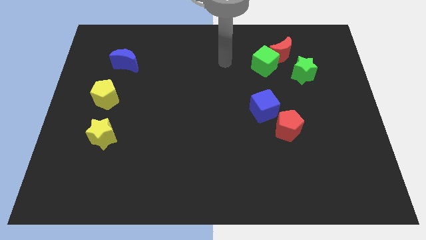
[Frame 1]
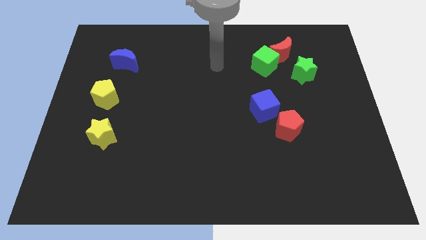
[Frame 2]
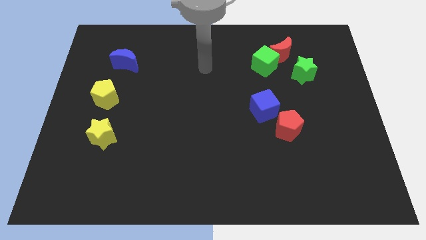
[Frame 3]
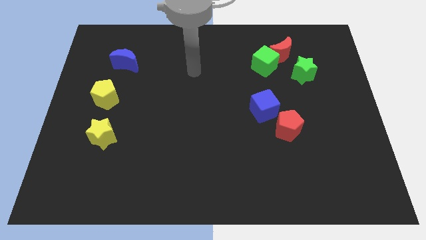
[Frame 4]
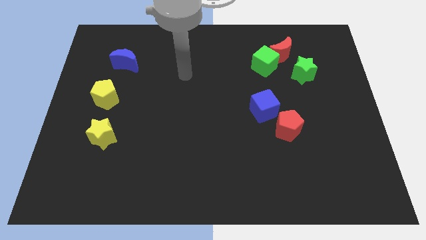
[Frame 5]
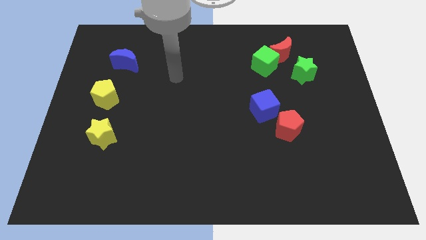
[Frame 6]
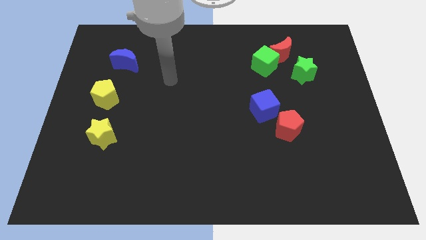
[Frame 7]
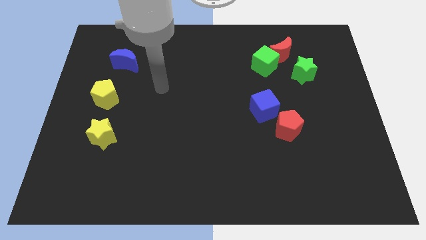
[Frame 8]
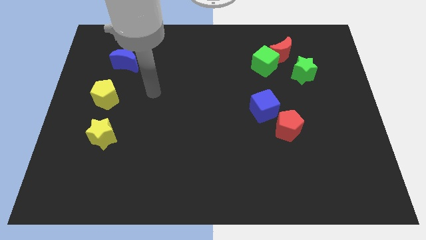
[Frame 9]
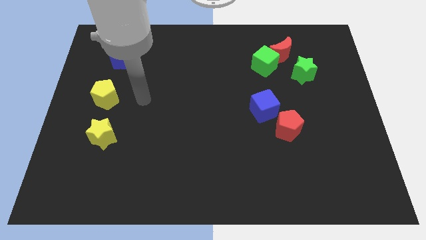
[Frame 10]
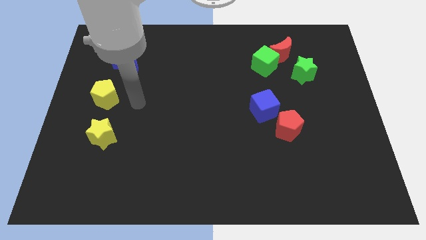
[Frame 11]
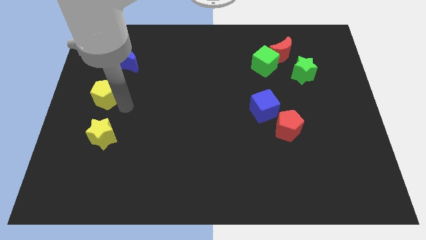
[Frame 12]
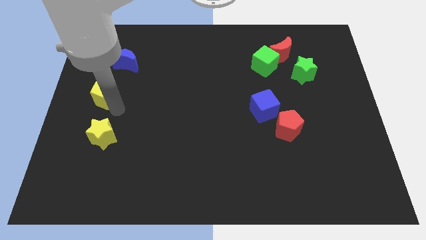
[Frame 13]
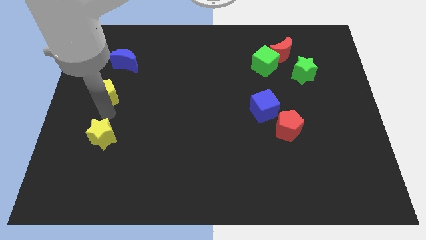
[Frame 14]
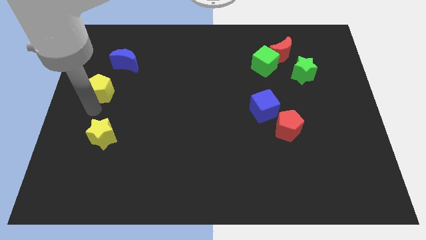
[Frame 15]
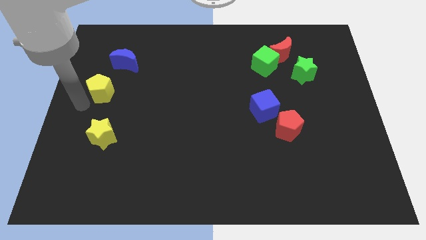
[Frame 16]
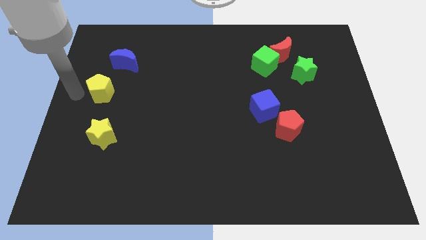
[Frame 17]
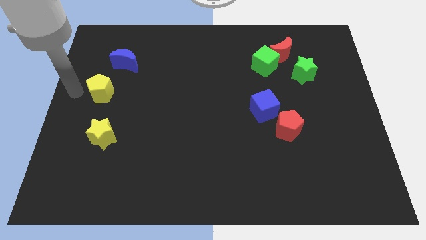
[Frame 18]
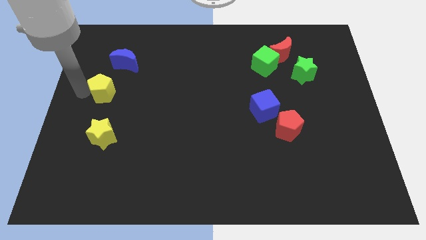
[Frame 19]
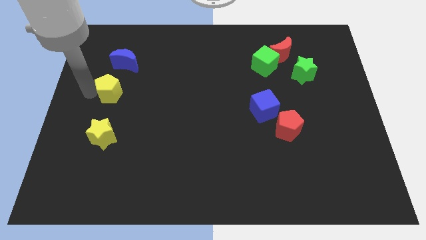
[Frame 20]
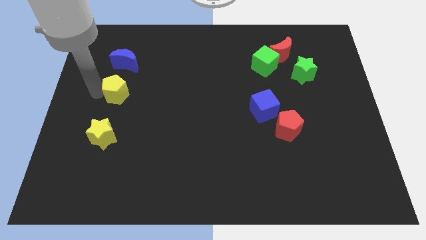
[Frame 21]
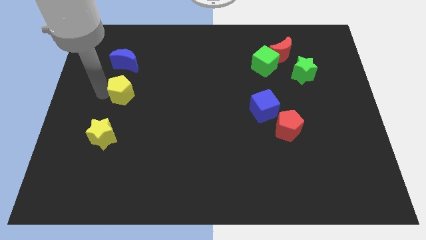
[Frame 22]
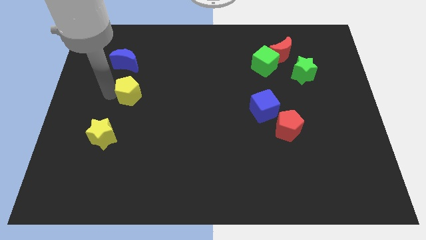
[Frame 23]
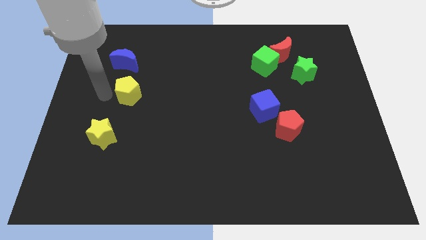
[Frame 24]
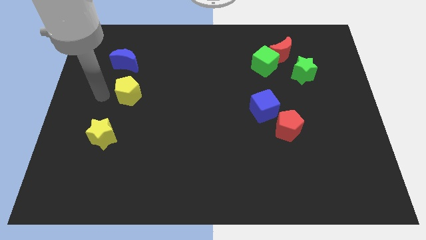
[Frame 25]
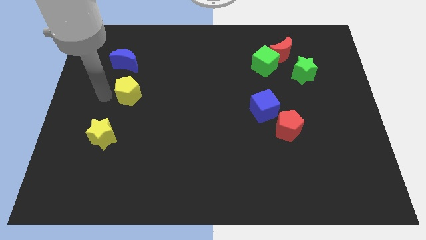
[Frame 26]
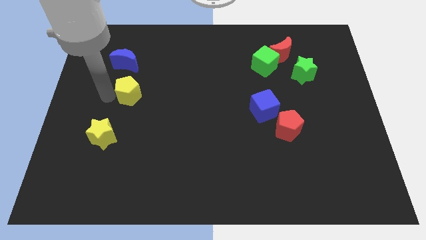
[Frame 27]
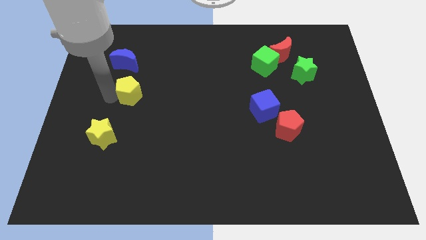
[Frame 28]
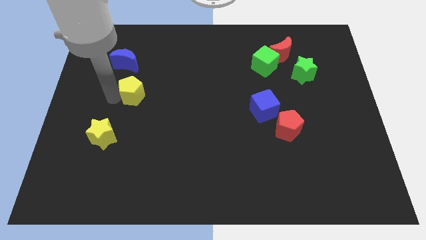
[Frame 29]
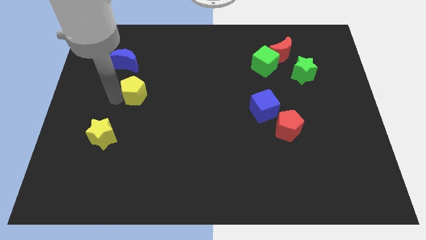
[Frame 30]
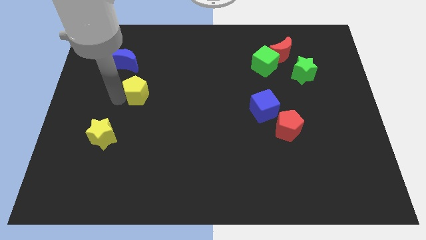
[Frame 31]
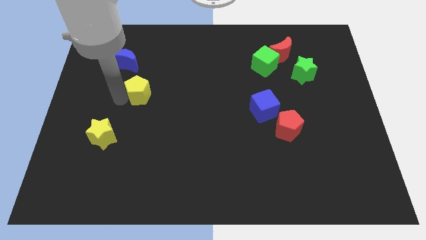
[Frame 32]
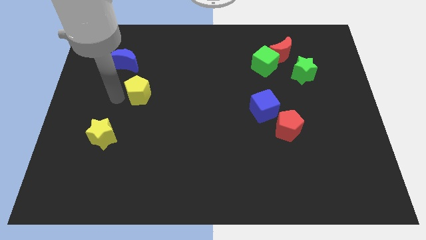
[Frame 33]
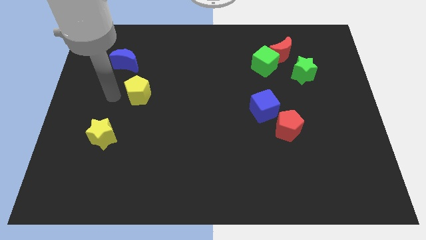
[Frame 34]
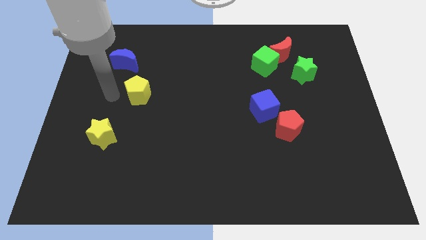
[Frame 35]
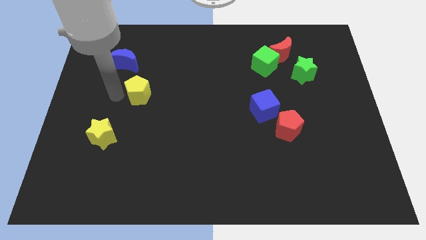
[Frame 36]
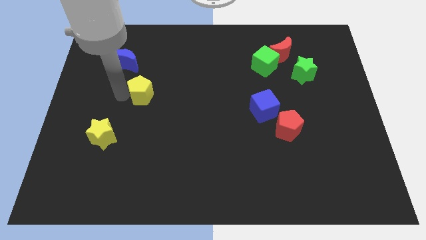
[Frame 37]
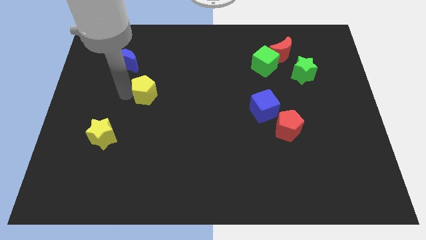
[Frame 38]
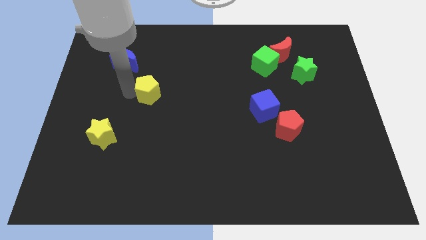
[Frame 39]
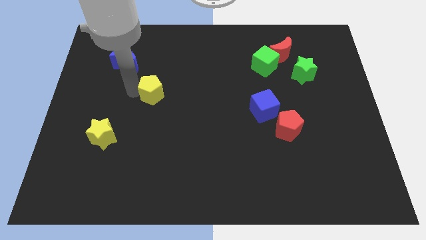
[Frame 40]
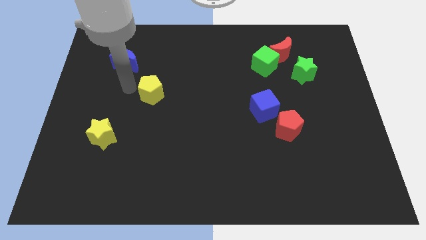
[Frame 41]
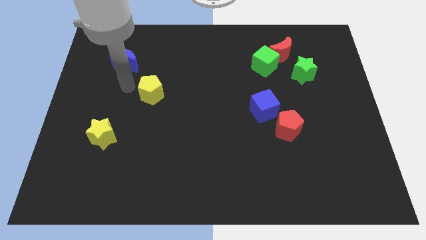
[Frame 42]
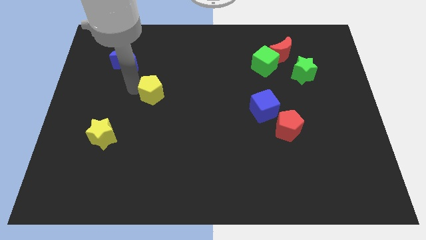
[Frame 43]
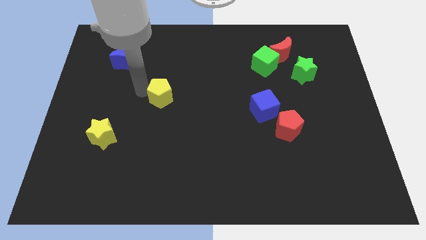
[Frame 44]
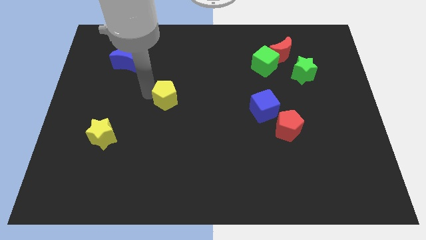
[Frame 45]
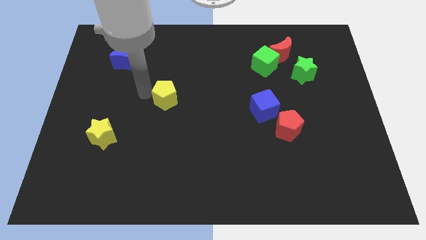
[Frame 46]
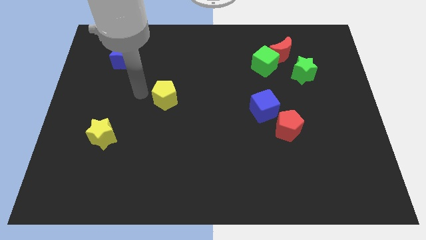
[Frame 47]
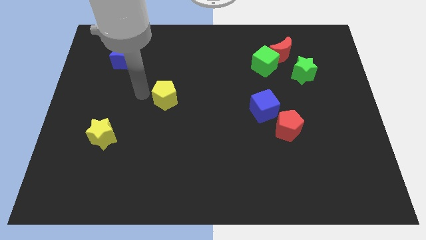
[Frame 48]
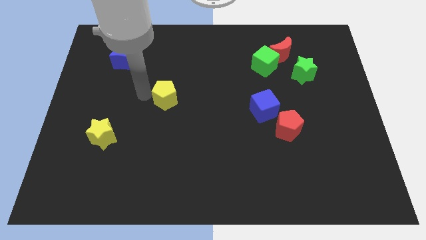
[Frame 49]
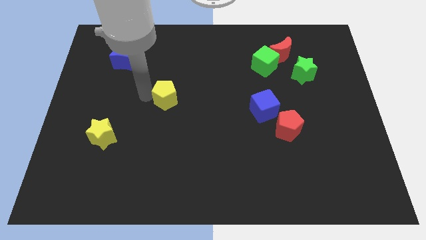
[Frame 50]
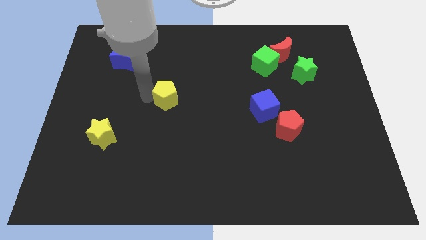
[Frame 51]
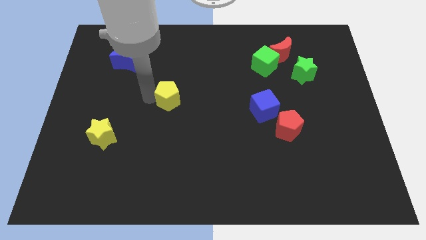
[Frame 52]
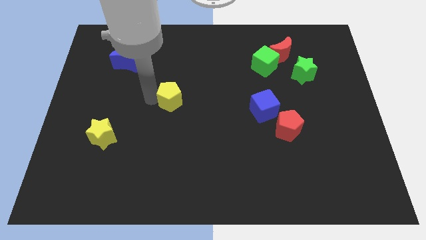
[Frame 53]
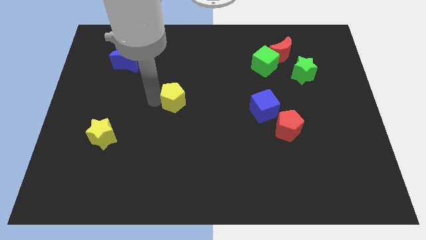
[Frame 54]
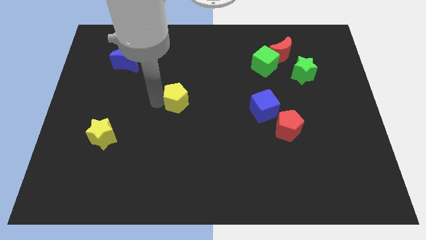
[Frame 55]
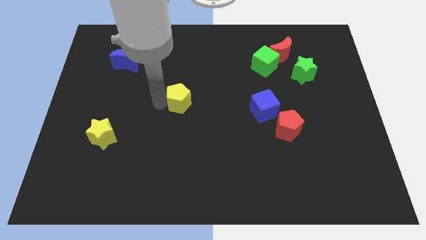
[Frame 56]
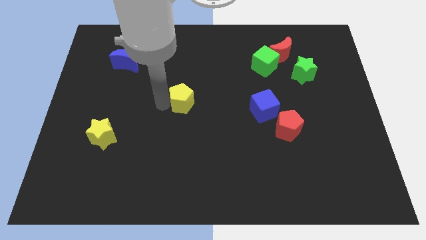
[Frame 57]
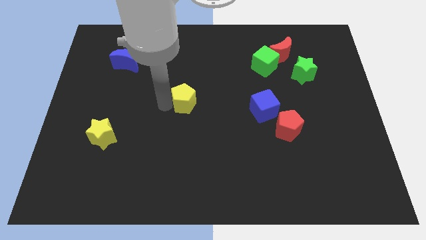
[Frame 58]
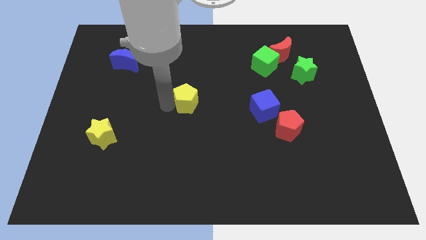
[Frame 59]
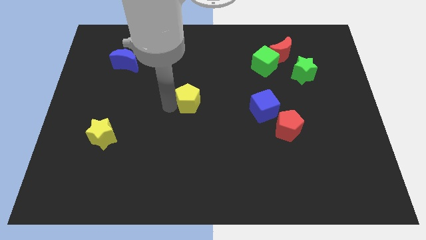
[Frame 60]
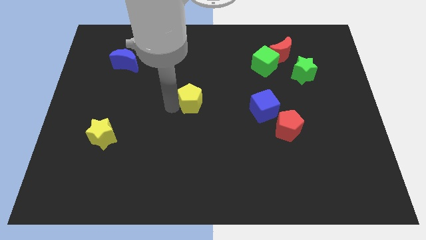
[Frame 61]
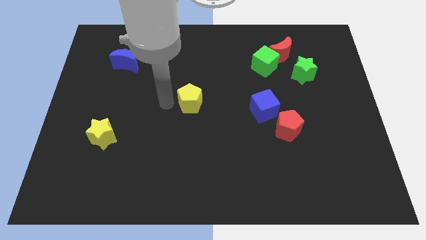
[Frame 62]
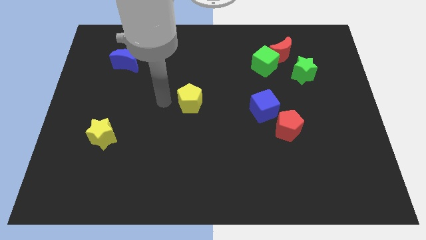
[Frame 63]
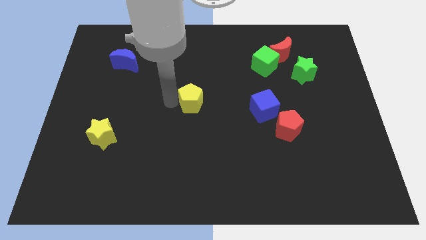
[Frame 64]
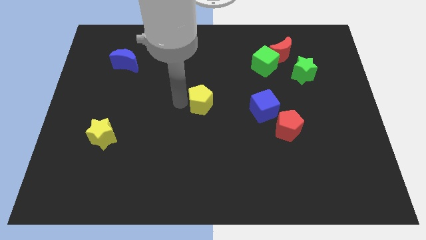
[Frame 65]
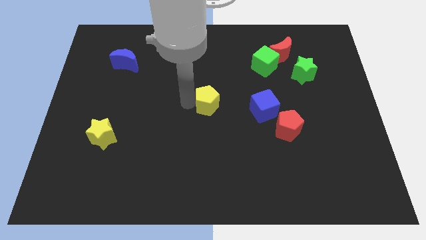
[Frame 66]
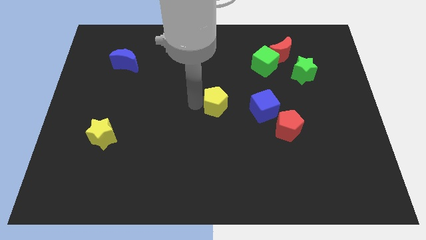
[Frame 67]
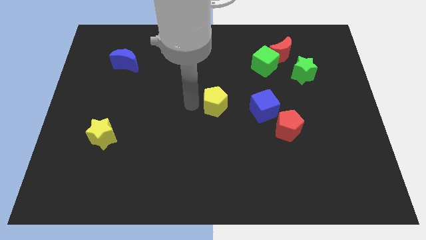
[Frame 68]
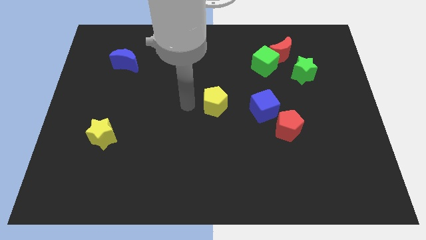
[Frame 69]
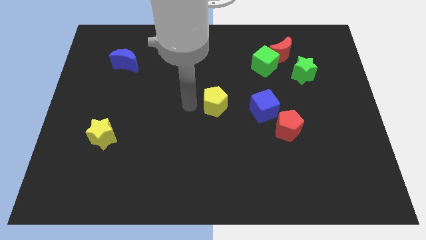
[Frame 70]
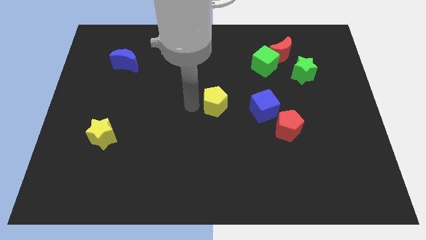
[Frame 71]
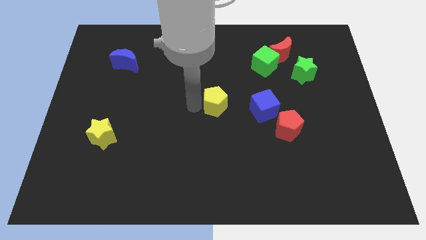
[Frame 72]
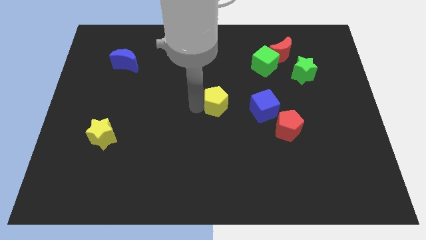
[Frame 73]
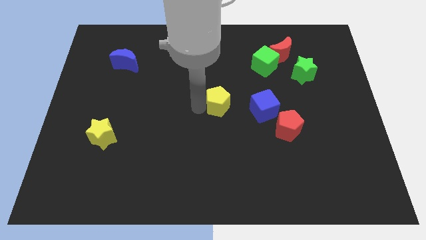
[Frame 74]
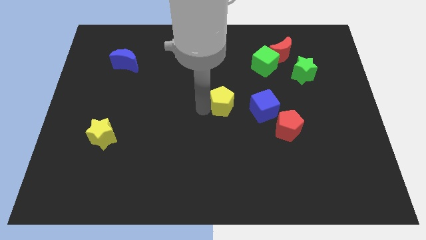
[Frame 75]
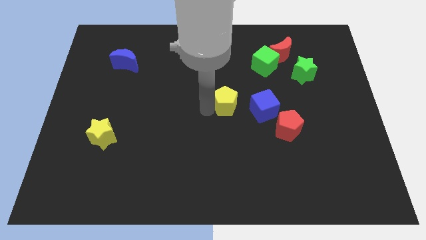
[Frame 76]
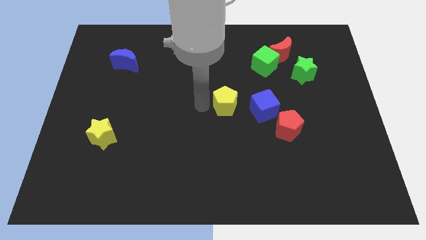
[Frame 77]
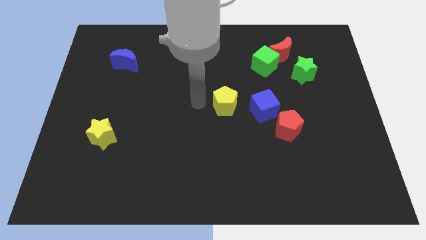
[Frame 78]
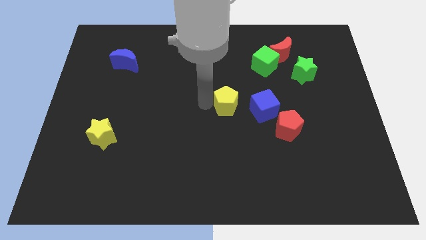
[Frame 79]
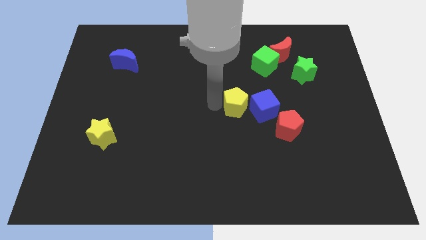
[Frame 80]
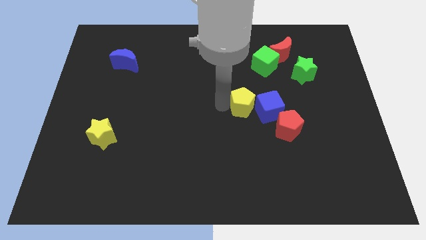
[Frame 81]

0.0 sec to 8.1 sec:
slide the yellow pentagon towards the blue cube
